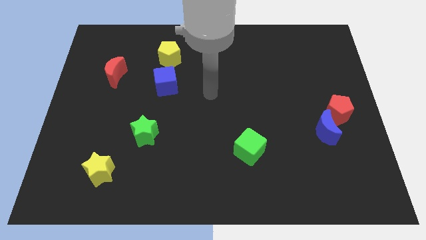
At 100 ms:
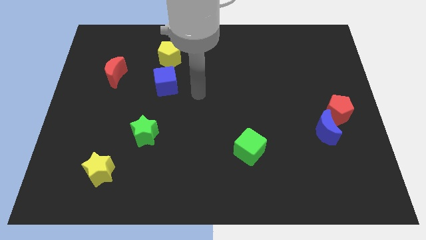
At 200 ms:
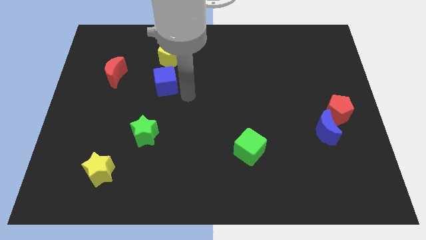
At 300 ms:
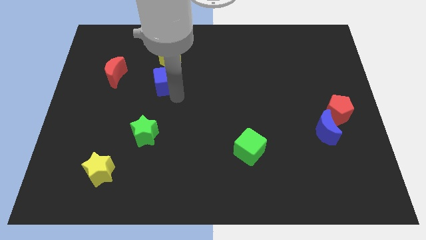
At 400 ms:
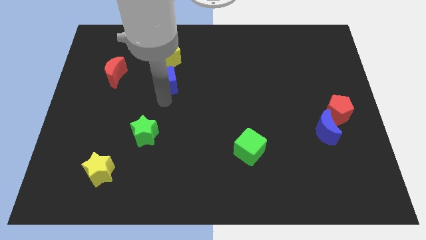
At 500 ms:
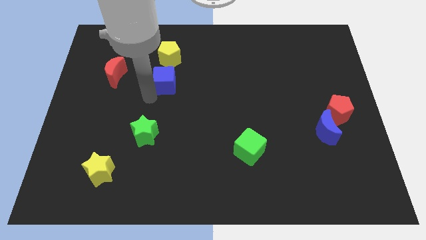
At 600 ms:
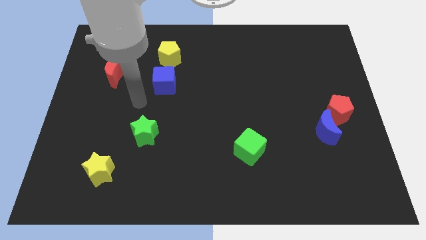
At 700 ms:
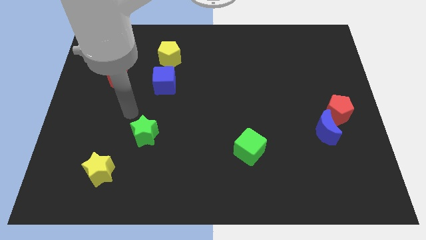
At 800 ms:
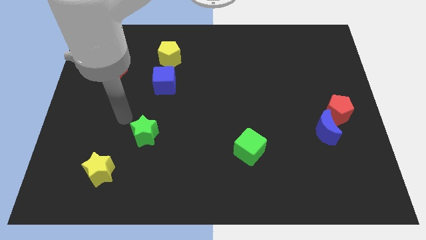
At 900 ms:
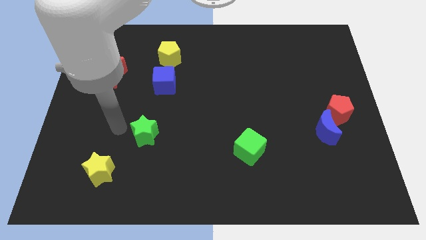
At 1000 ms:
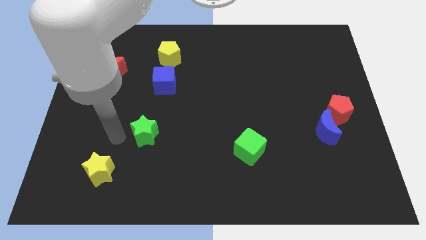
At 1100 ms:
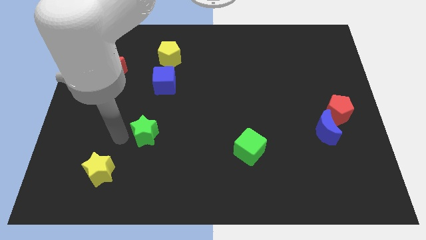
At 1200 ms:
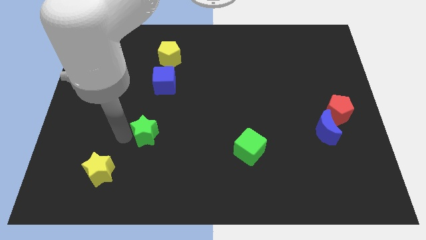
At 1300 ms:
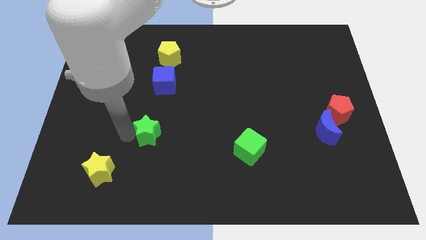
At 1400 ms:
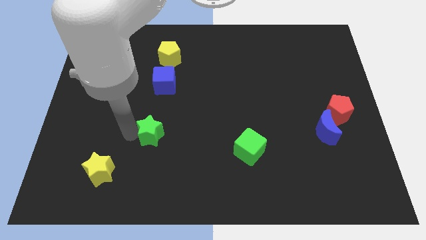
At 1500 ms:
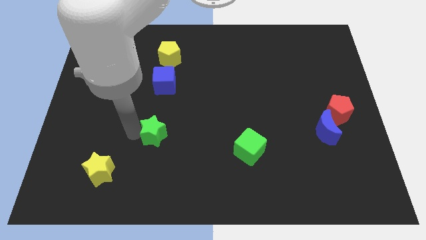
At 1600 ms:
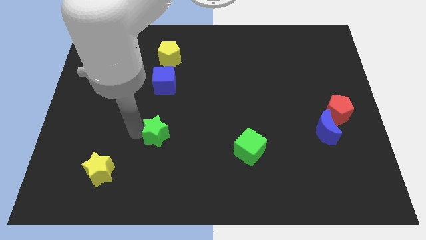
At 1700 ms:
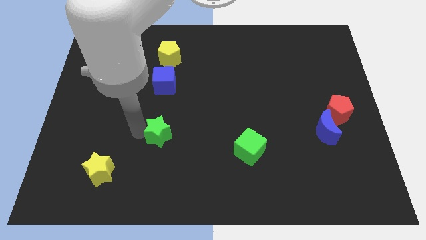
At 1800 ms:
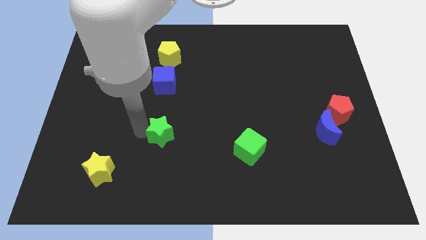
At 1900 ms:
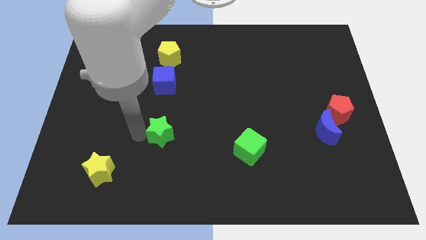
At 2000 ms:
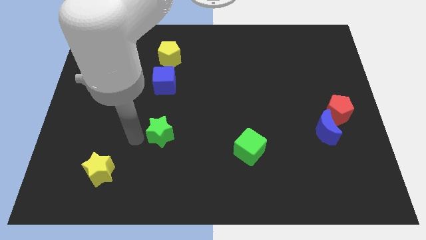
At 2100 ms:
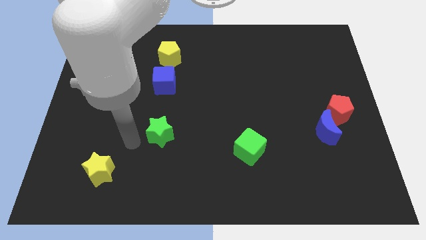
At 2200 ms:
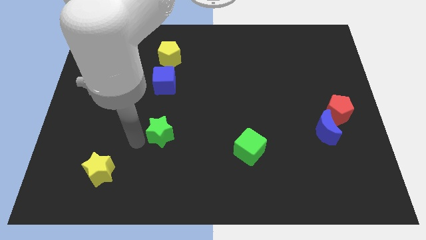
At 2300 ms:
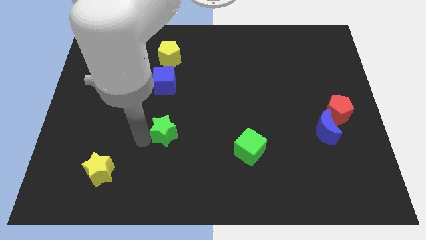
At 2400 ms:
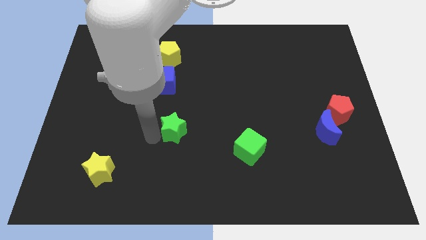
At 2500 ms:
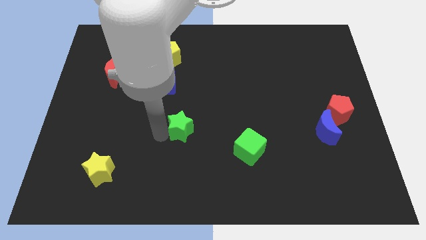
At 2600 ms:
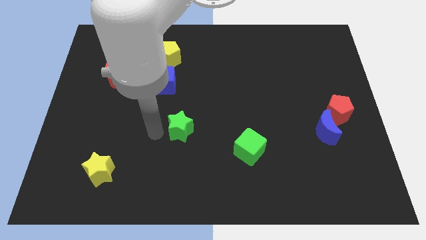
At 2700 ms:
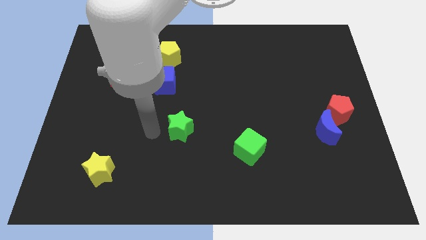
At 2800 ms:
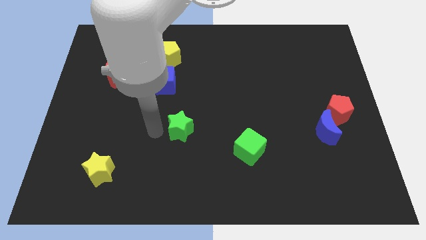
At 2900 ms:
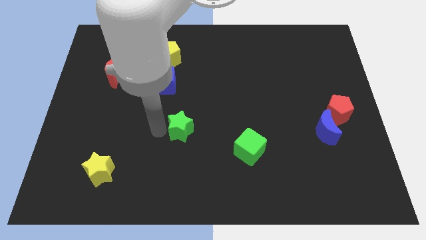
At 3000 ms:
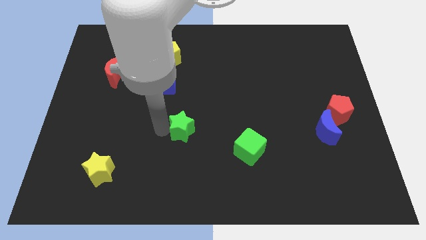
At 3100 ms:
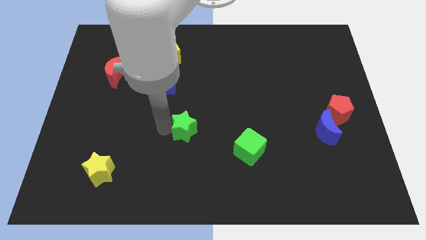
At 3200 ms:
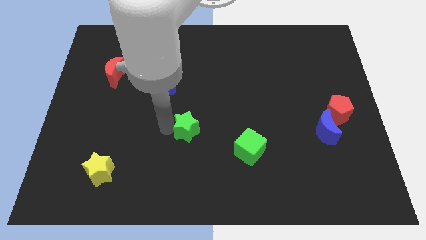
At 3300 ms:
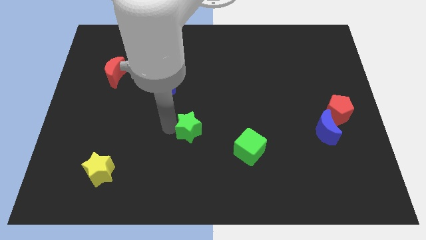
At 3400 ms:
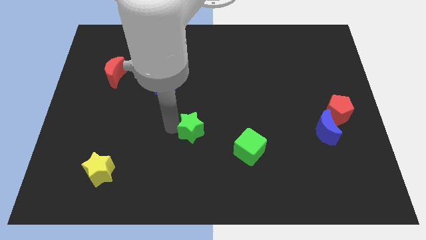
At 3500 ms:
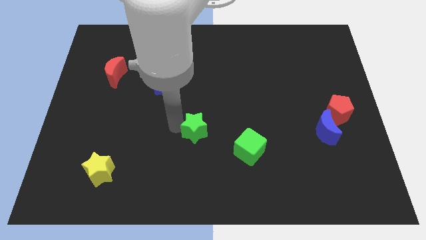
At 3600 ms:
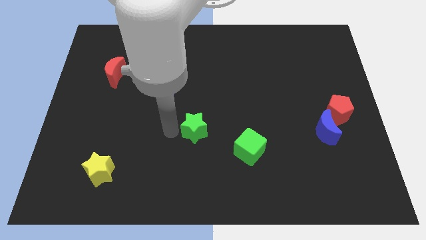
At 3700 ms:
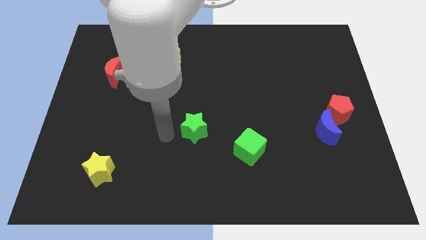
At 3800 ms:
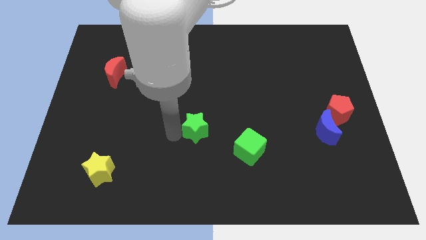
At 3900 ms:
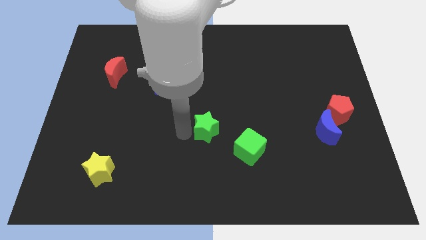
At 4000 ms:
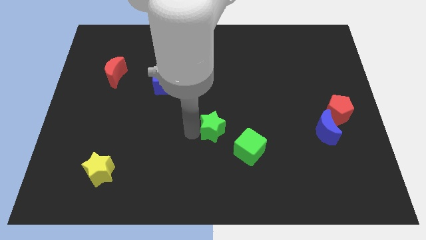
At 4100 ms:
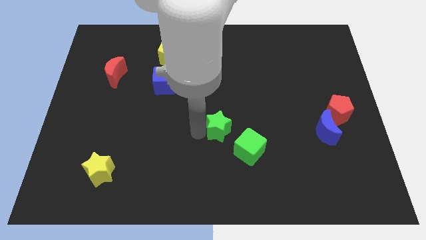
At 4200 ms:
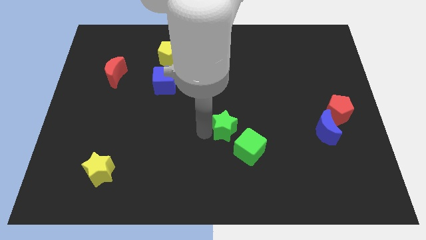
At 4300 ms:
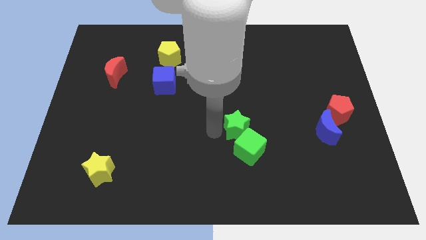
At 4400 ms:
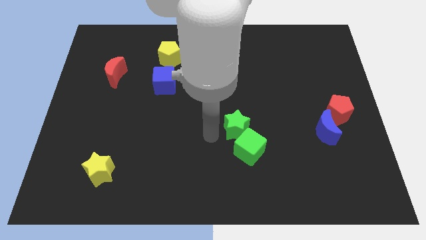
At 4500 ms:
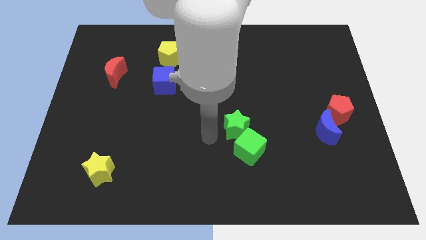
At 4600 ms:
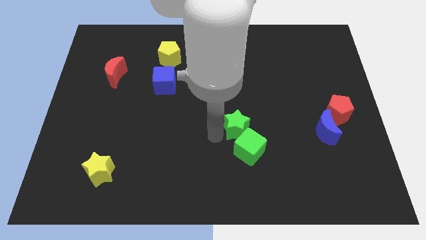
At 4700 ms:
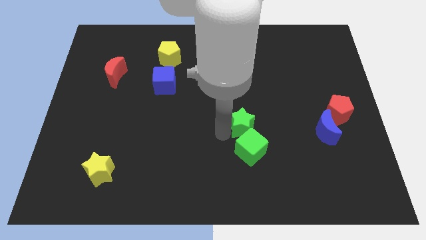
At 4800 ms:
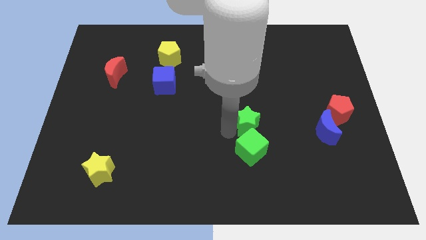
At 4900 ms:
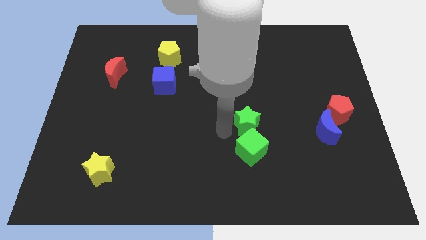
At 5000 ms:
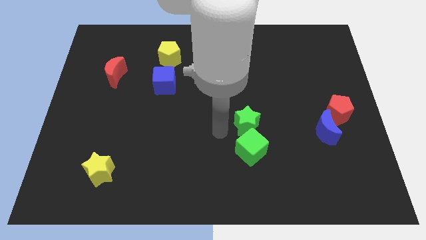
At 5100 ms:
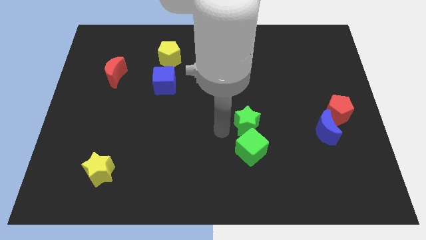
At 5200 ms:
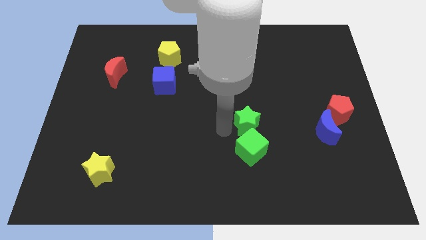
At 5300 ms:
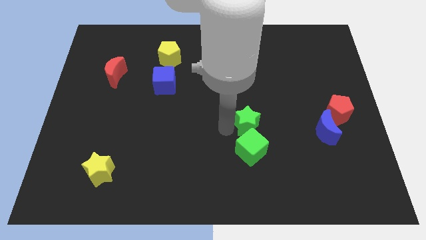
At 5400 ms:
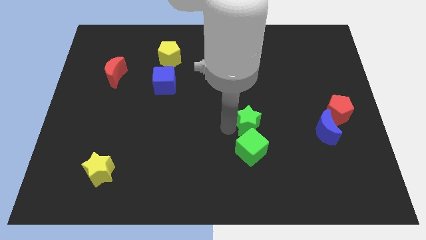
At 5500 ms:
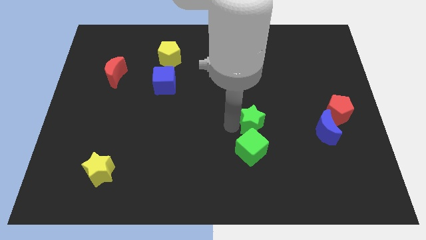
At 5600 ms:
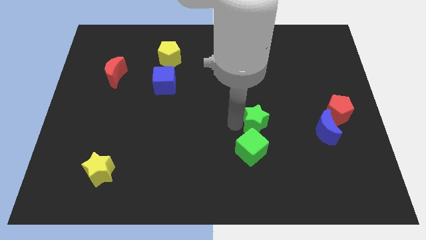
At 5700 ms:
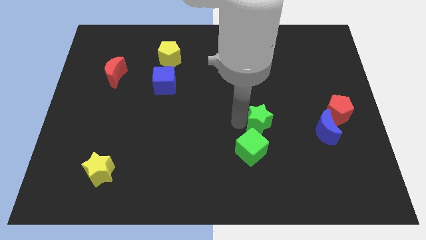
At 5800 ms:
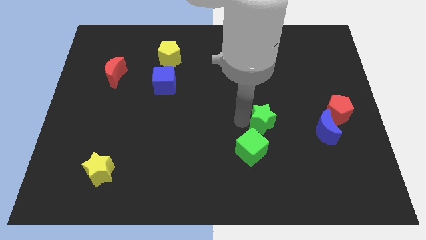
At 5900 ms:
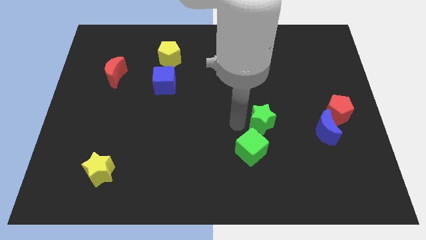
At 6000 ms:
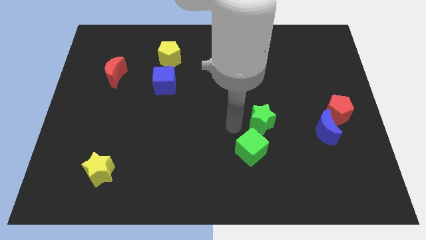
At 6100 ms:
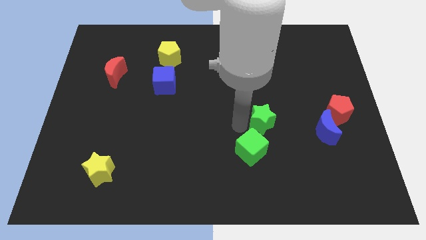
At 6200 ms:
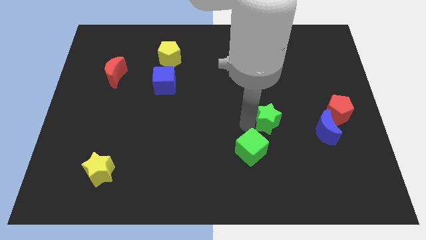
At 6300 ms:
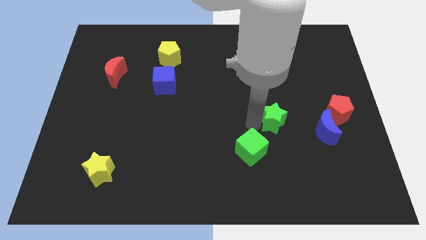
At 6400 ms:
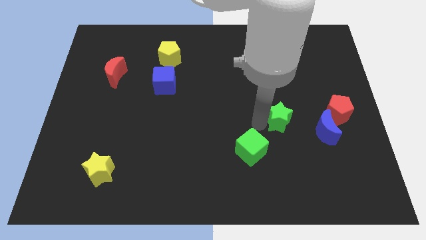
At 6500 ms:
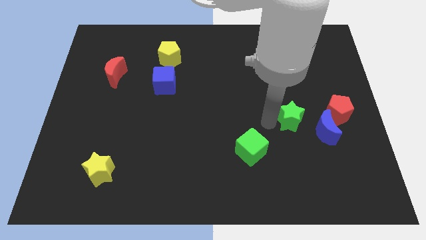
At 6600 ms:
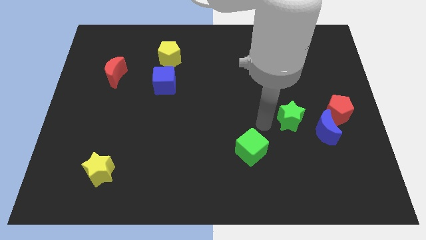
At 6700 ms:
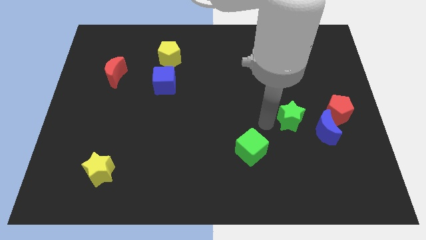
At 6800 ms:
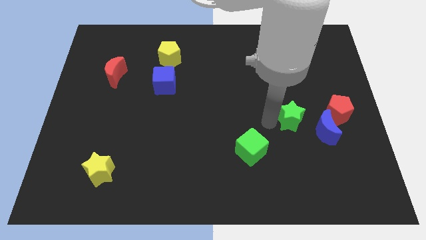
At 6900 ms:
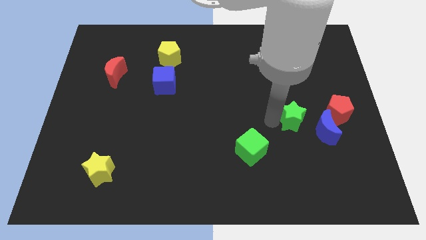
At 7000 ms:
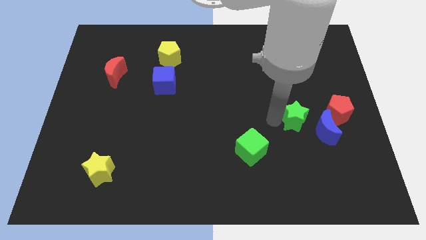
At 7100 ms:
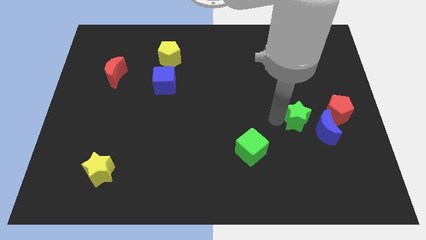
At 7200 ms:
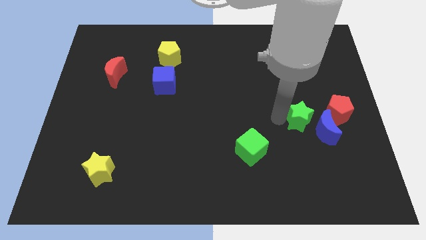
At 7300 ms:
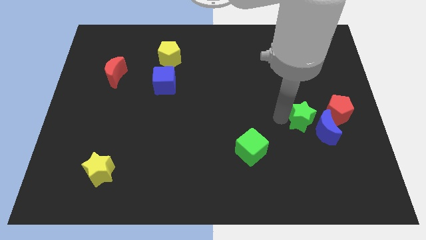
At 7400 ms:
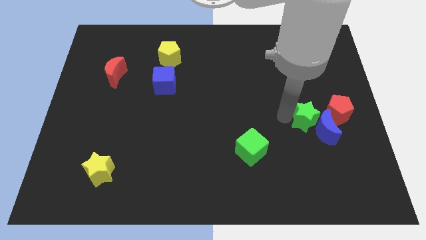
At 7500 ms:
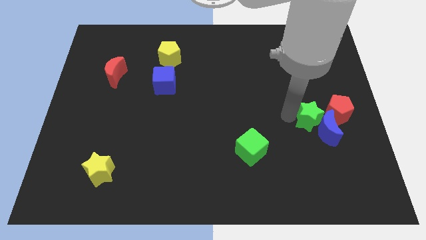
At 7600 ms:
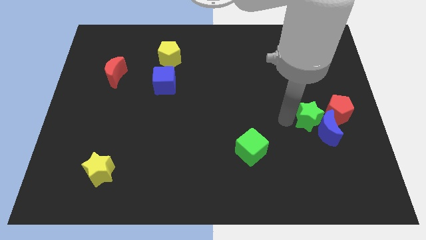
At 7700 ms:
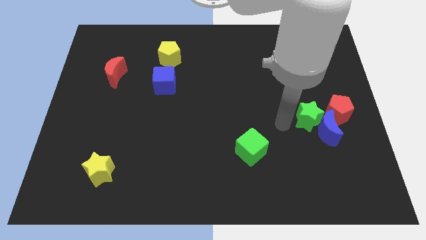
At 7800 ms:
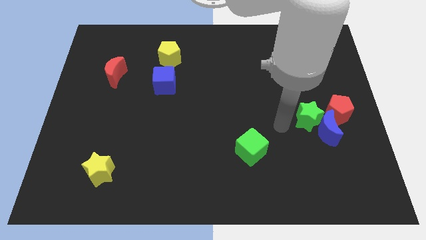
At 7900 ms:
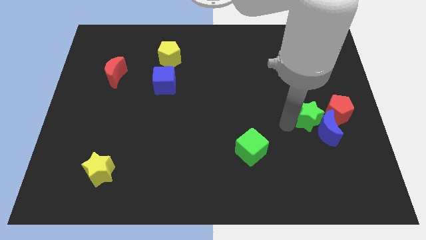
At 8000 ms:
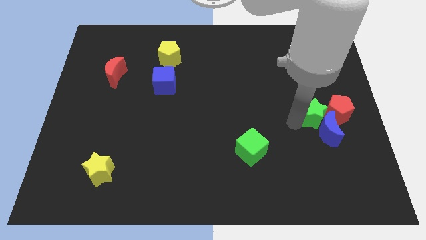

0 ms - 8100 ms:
slide the green star next to the red pentagon
